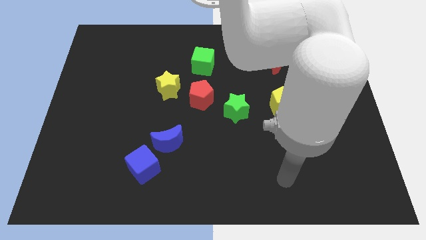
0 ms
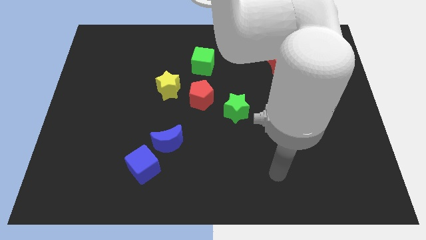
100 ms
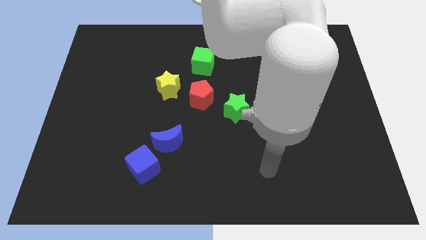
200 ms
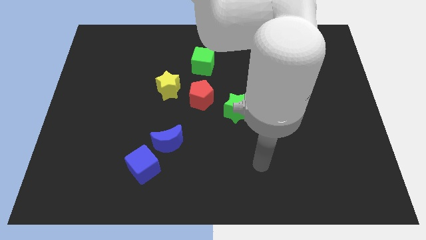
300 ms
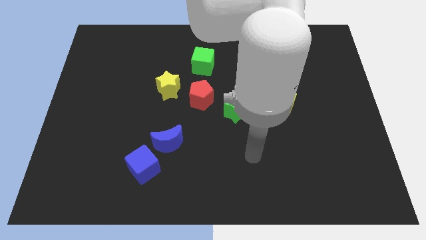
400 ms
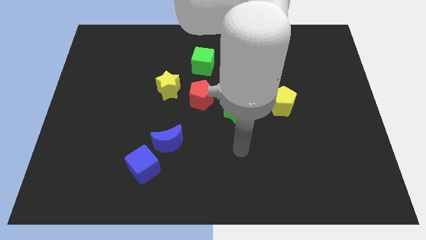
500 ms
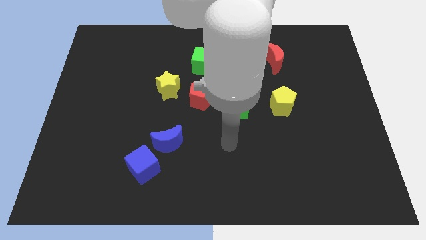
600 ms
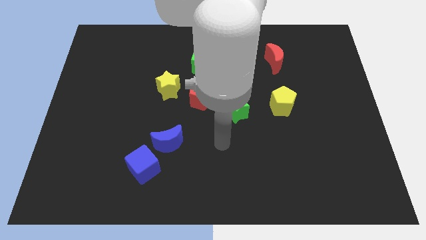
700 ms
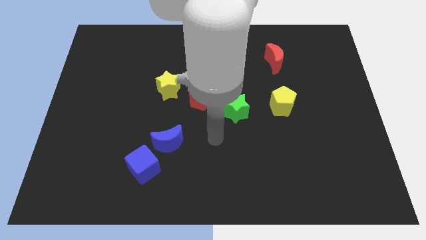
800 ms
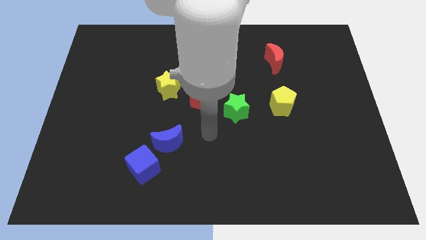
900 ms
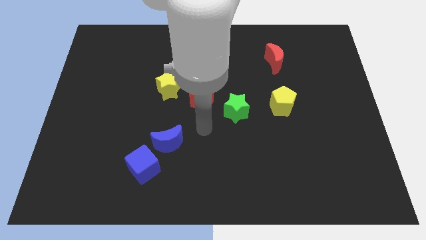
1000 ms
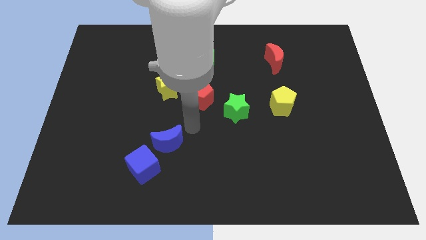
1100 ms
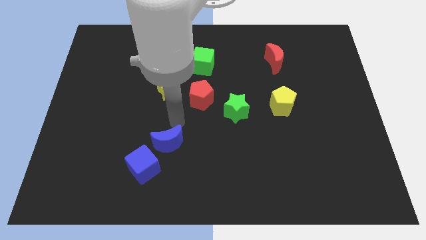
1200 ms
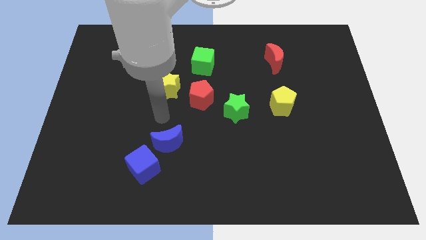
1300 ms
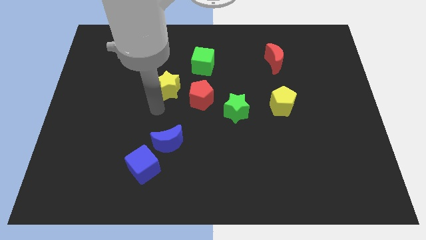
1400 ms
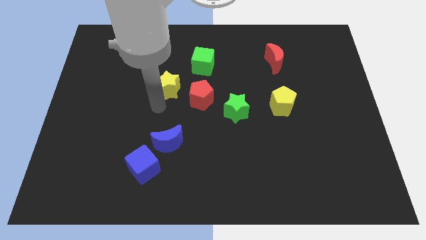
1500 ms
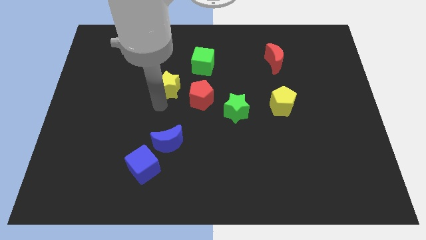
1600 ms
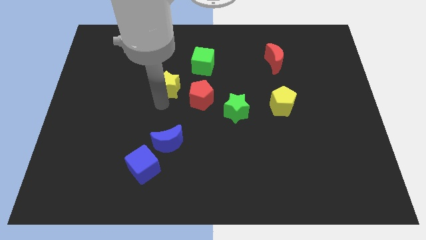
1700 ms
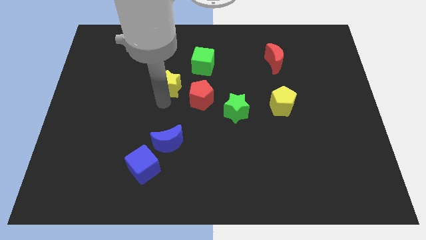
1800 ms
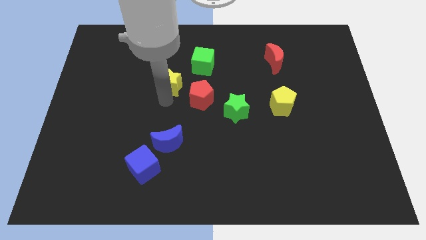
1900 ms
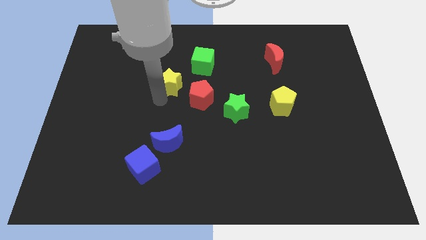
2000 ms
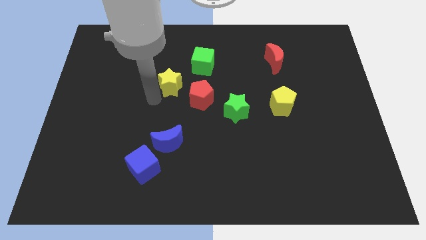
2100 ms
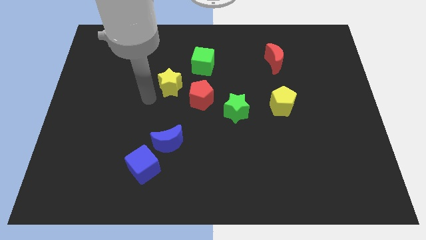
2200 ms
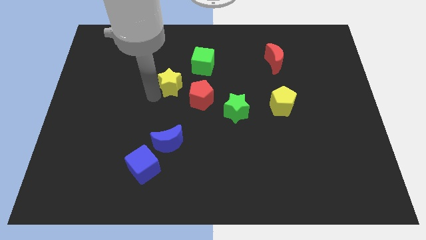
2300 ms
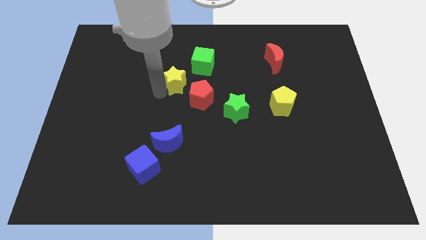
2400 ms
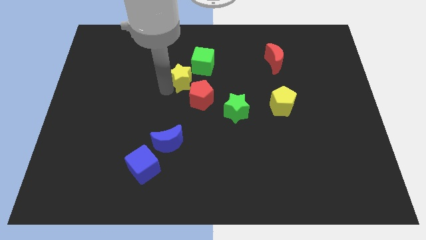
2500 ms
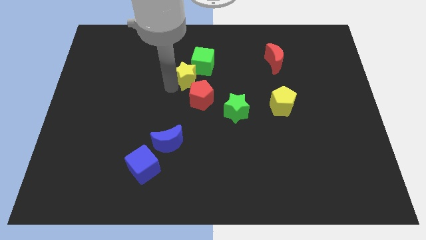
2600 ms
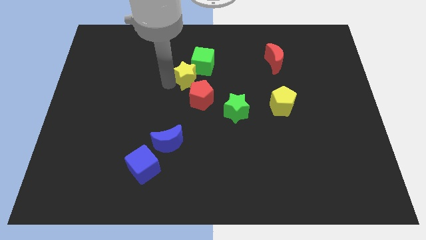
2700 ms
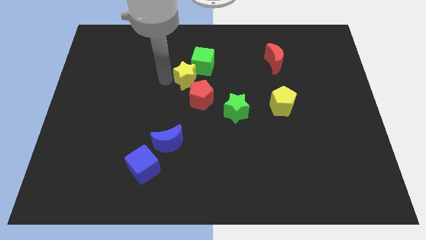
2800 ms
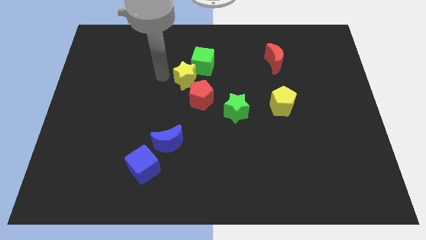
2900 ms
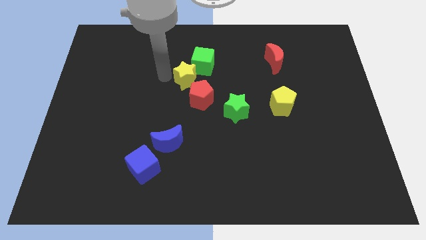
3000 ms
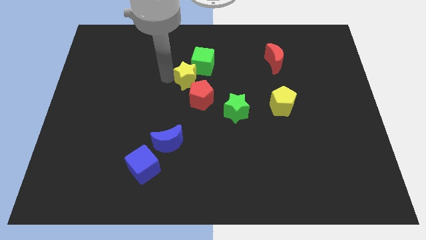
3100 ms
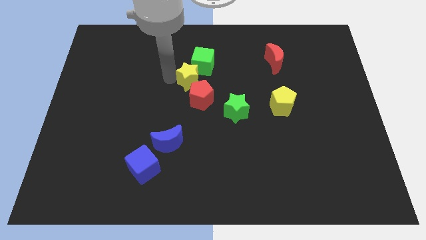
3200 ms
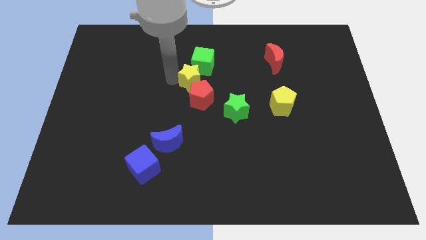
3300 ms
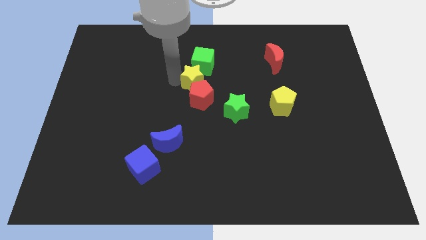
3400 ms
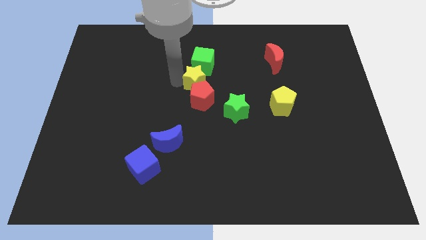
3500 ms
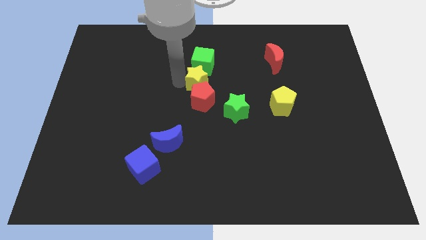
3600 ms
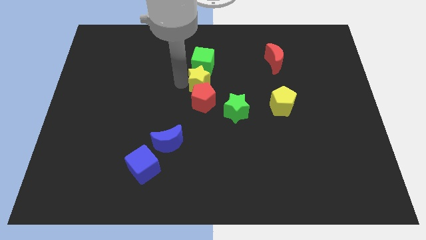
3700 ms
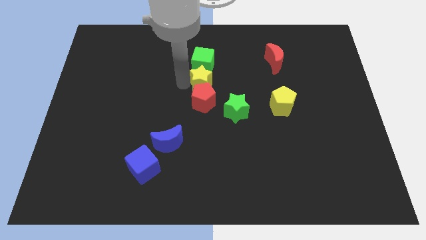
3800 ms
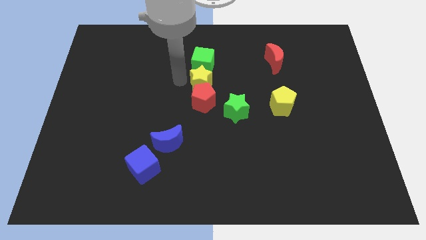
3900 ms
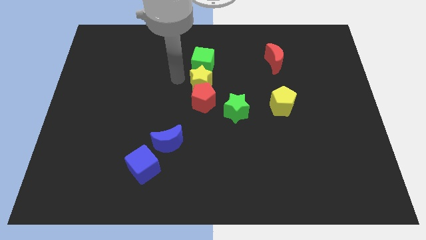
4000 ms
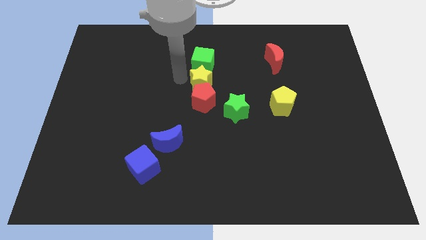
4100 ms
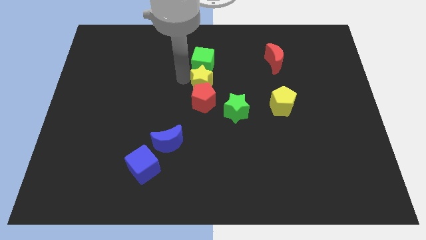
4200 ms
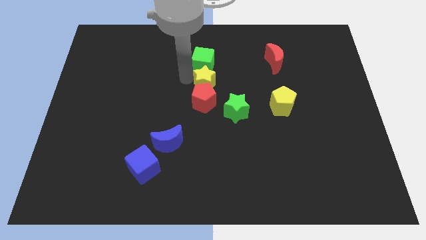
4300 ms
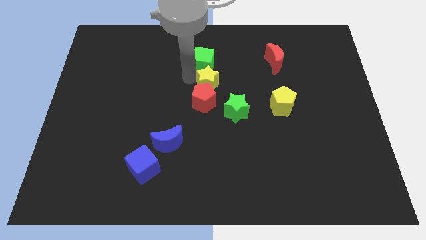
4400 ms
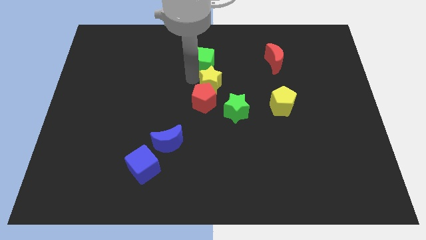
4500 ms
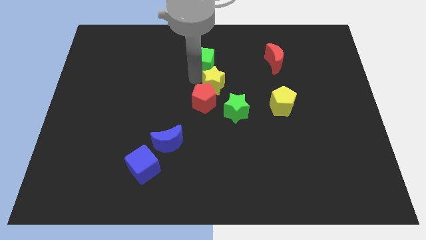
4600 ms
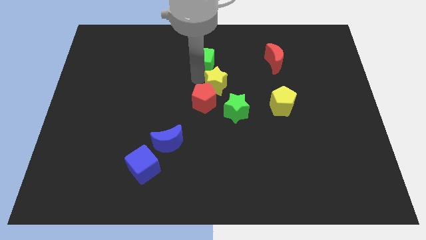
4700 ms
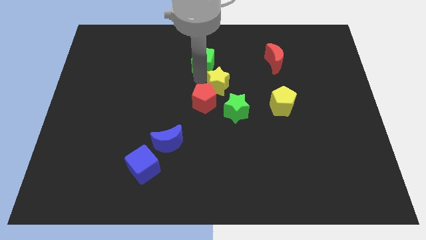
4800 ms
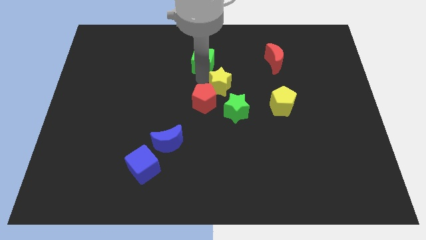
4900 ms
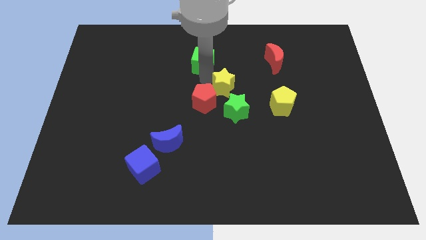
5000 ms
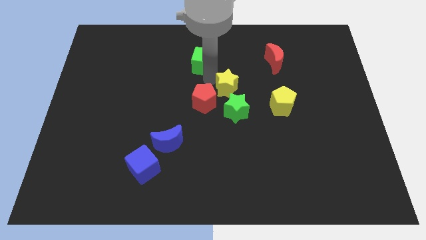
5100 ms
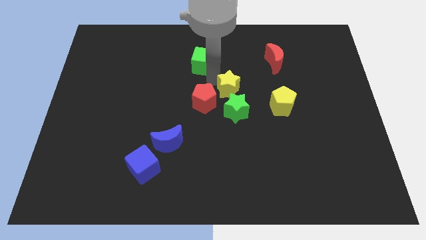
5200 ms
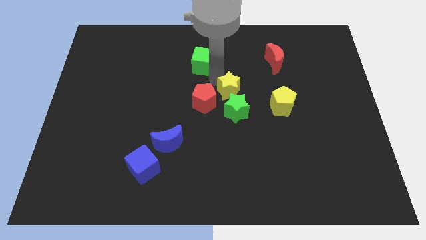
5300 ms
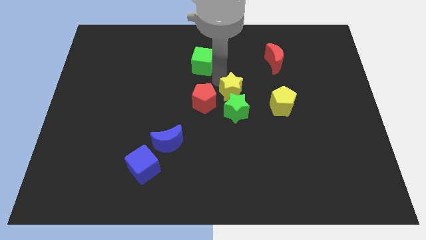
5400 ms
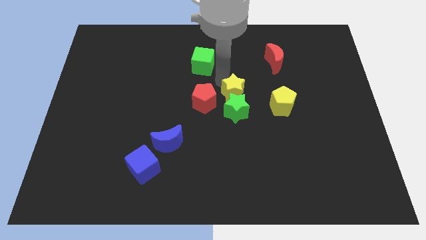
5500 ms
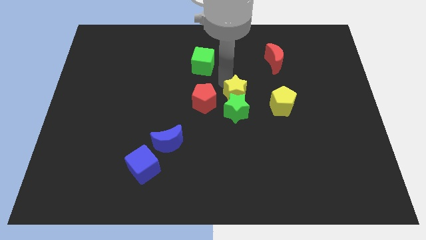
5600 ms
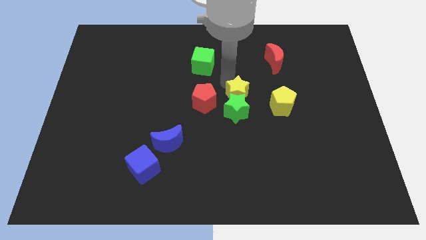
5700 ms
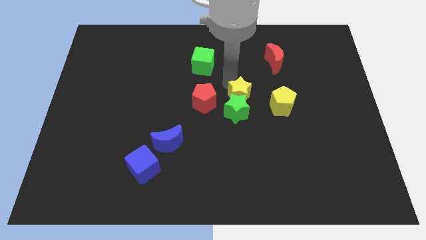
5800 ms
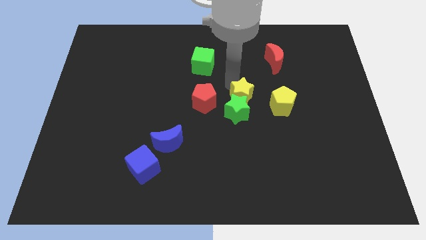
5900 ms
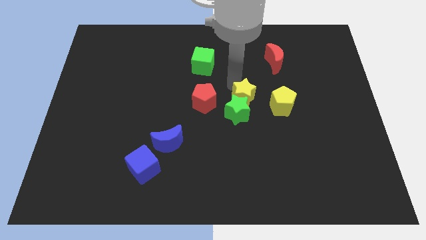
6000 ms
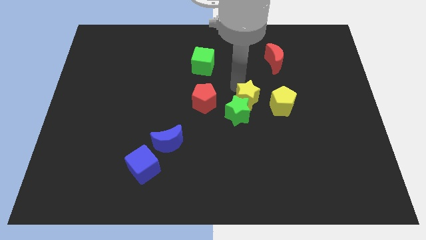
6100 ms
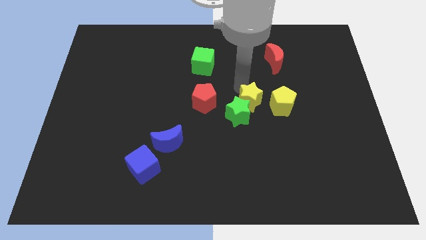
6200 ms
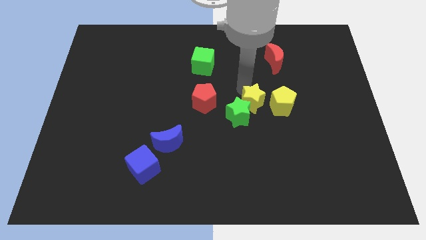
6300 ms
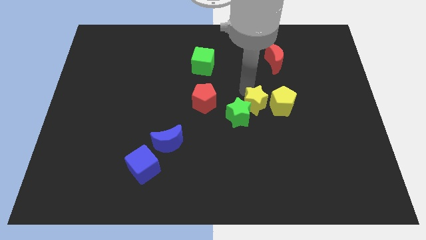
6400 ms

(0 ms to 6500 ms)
push the yellow star towards the yellow pentagon

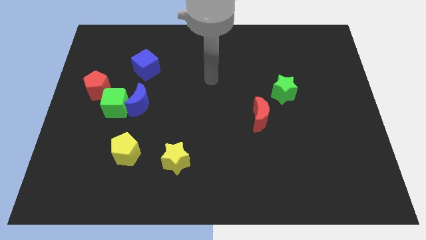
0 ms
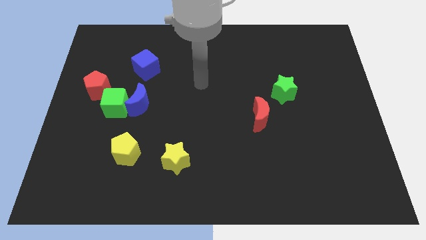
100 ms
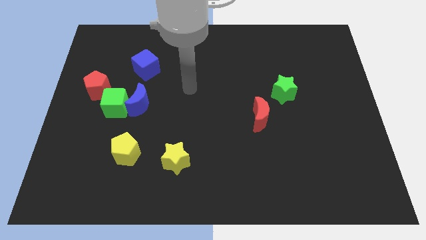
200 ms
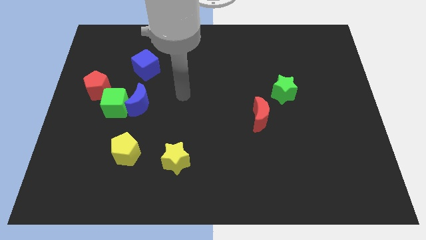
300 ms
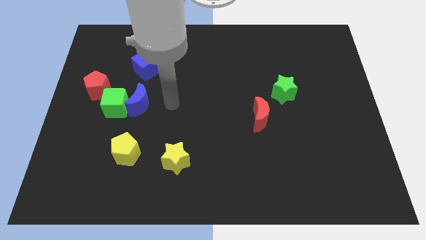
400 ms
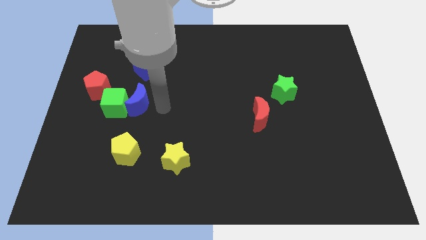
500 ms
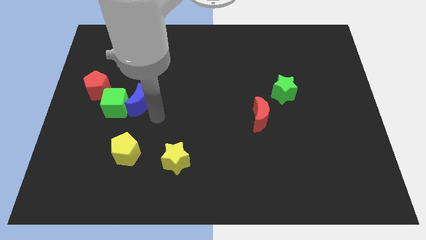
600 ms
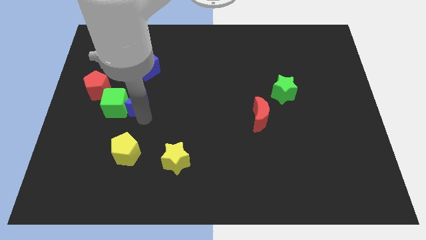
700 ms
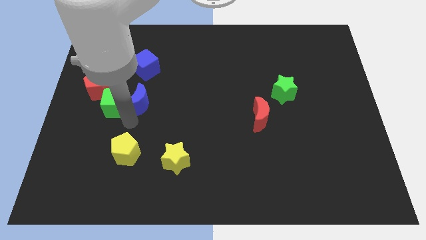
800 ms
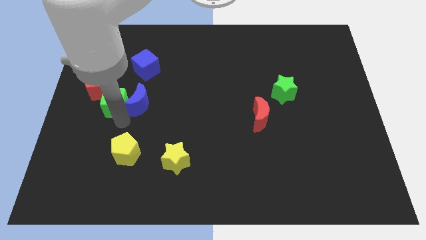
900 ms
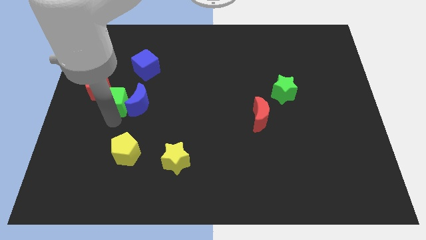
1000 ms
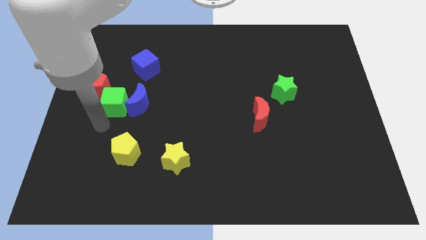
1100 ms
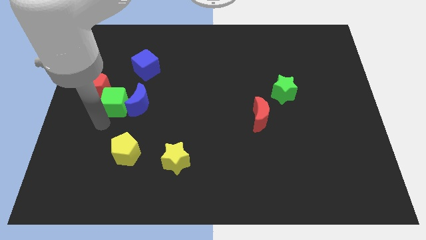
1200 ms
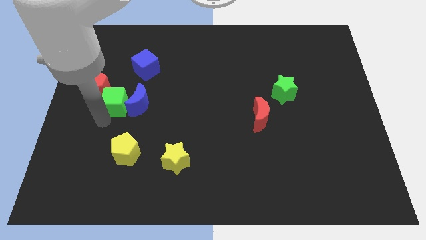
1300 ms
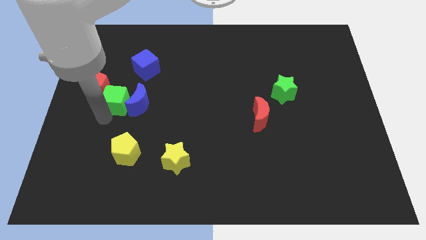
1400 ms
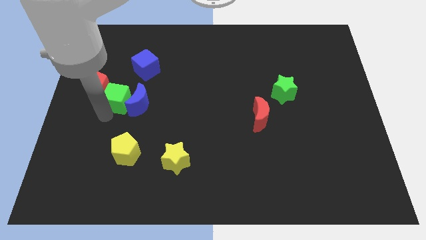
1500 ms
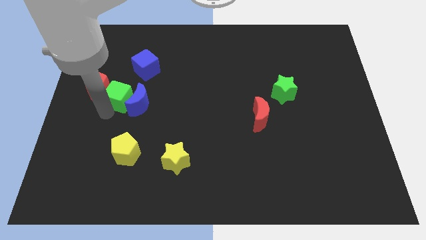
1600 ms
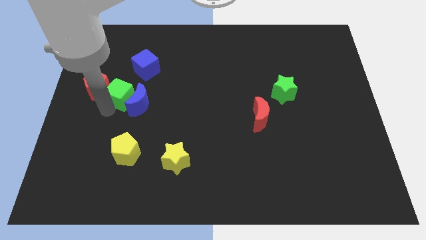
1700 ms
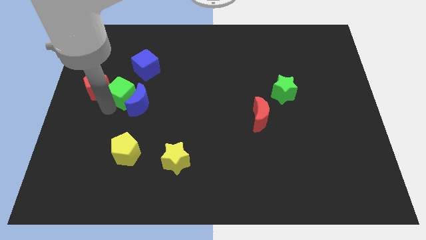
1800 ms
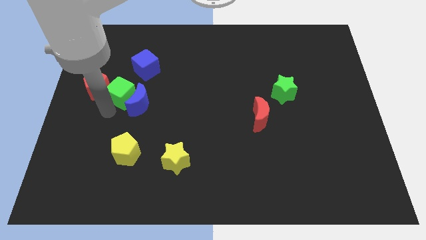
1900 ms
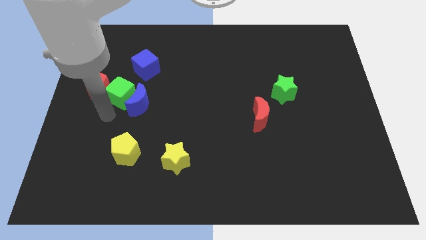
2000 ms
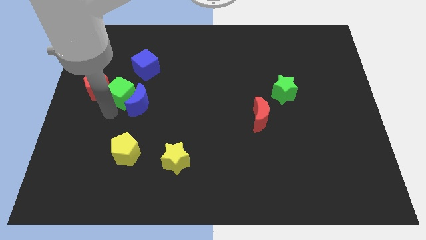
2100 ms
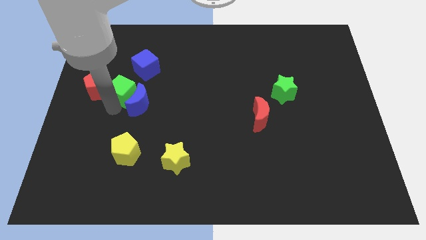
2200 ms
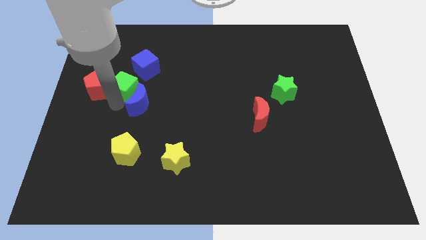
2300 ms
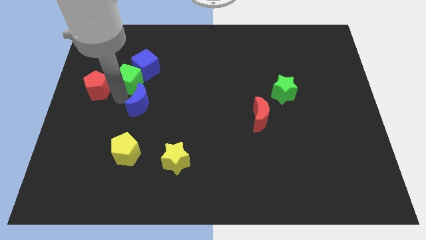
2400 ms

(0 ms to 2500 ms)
put the green cube to the blue cube
